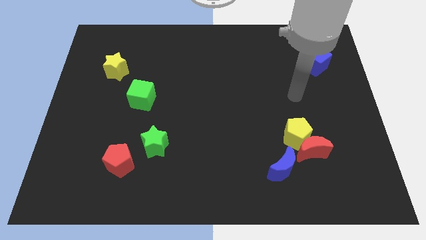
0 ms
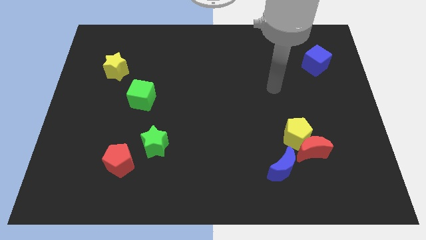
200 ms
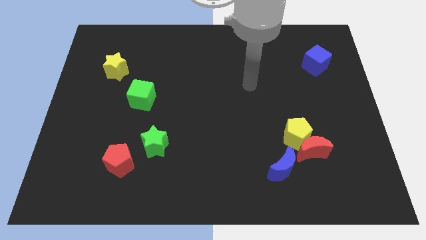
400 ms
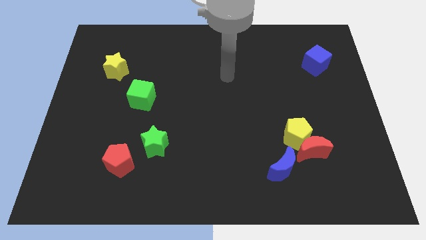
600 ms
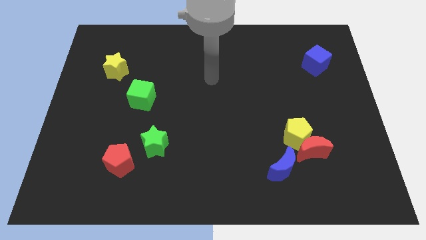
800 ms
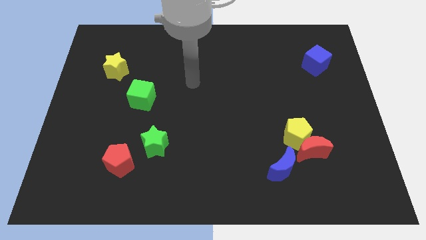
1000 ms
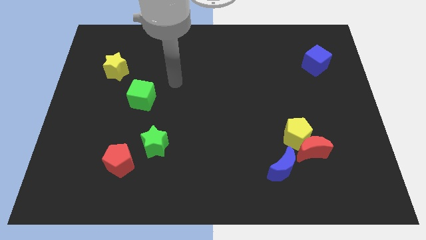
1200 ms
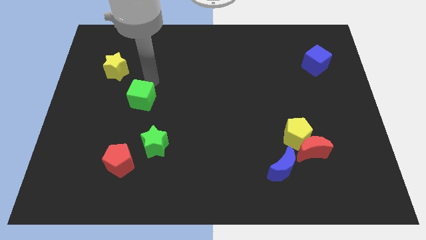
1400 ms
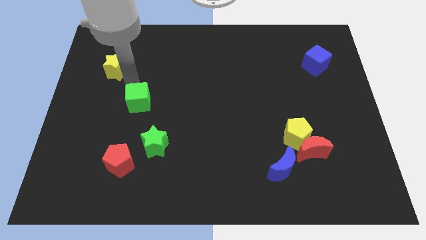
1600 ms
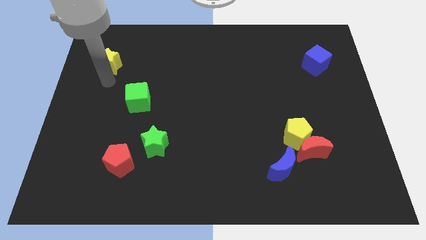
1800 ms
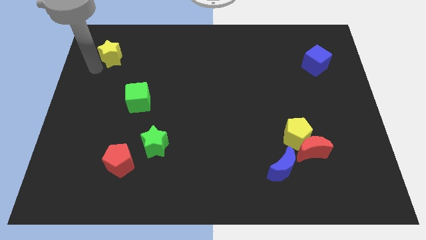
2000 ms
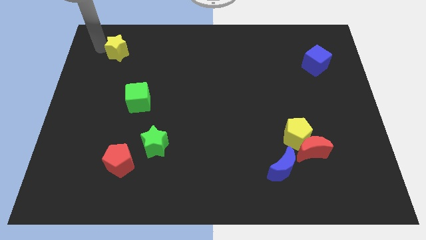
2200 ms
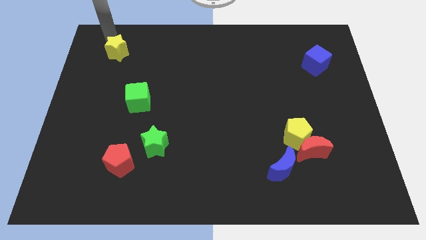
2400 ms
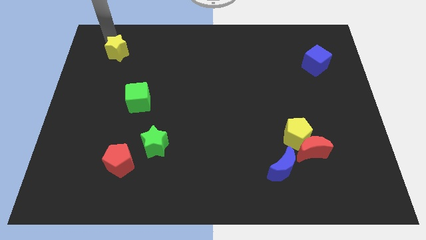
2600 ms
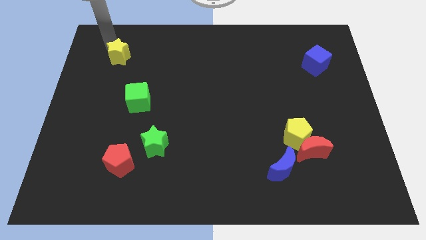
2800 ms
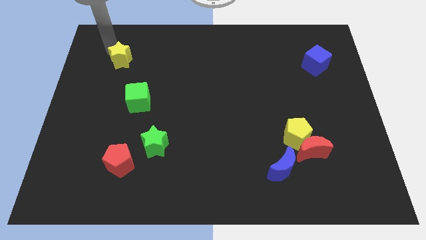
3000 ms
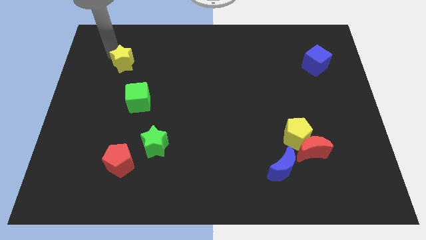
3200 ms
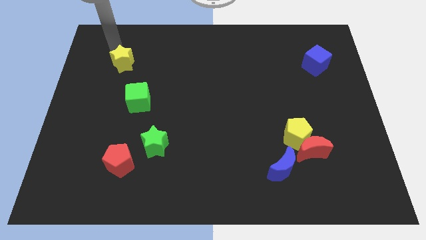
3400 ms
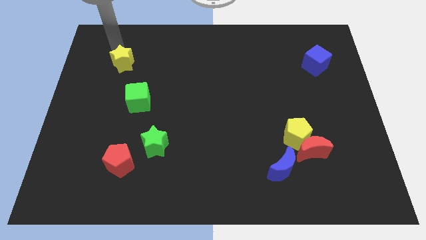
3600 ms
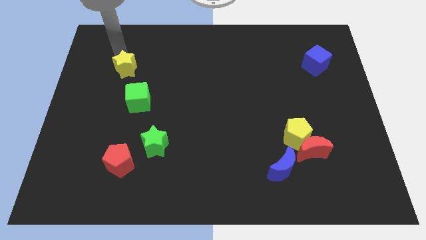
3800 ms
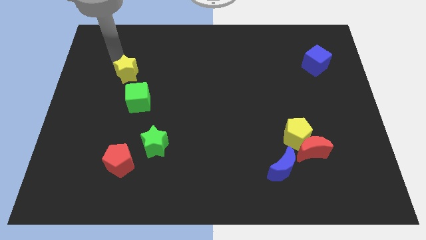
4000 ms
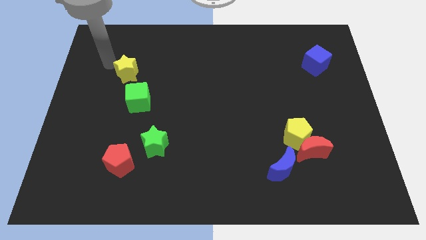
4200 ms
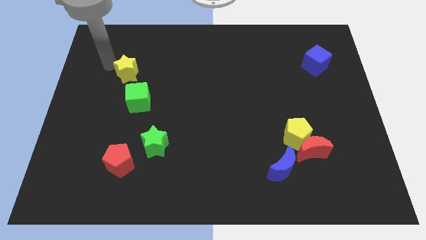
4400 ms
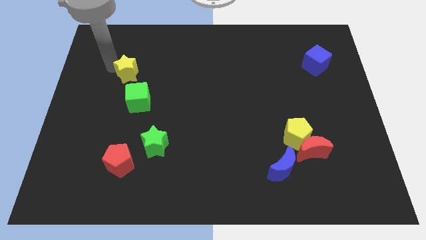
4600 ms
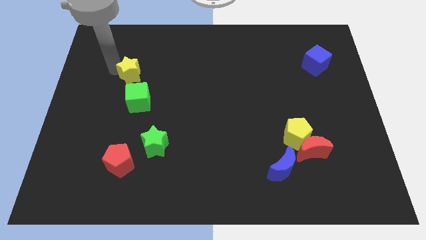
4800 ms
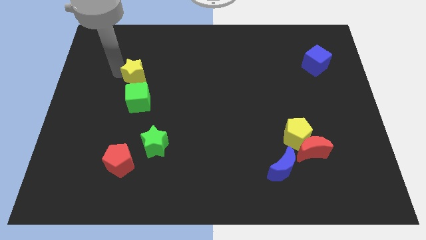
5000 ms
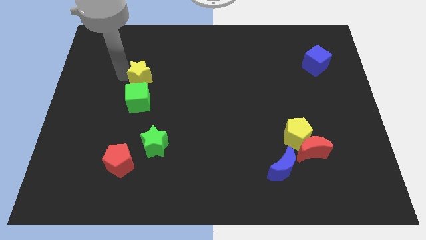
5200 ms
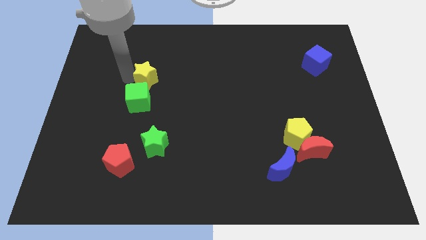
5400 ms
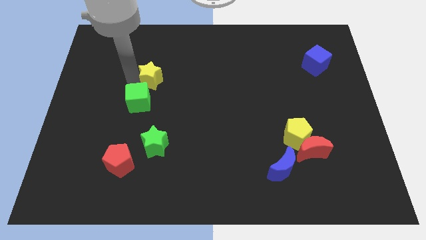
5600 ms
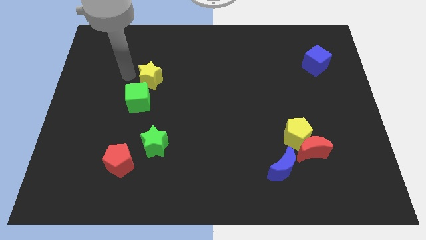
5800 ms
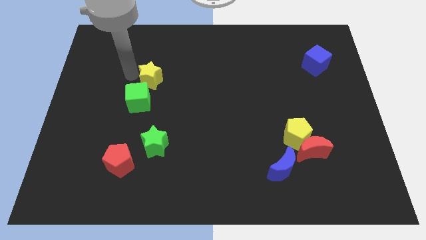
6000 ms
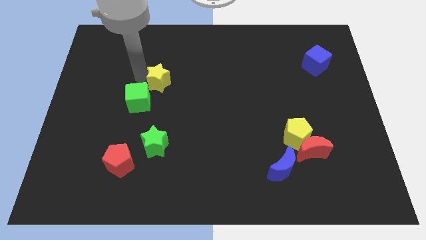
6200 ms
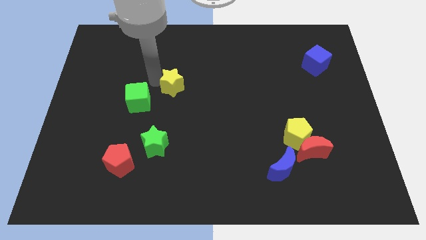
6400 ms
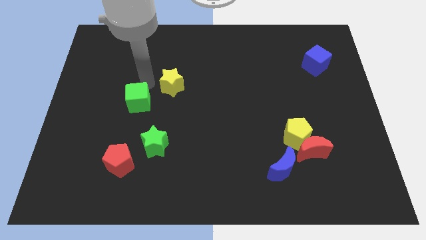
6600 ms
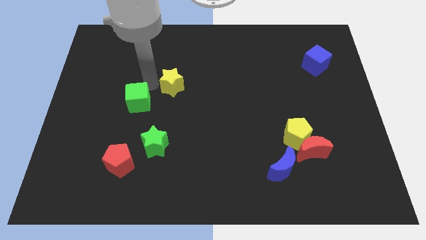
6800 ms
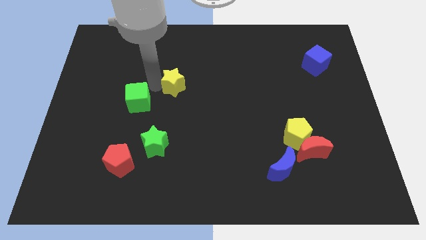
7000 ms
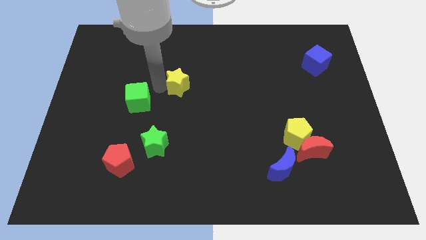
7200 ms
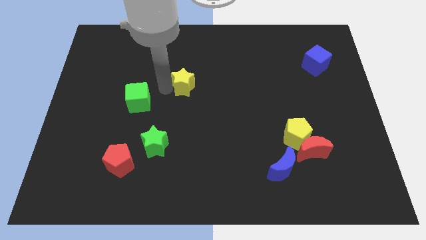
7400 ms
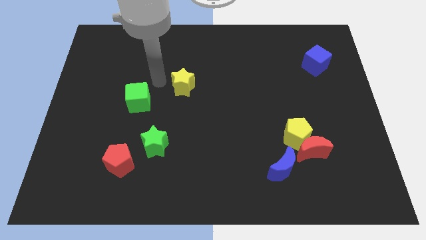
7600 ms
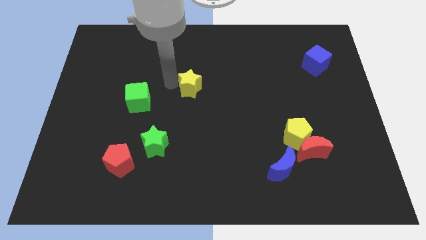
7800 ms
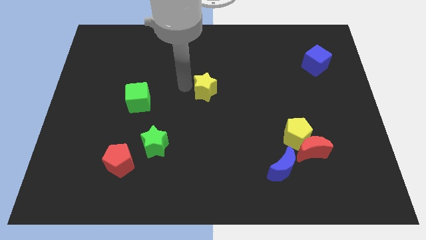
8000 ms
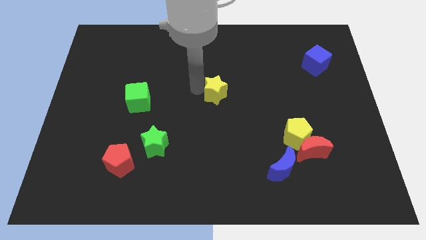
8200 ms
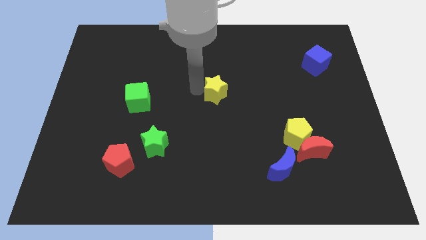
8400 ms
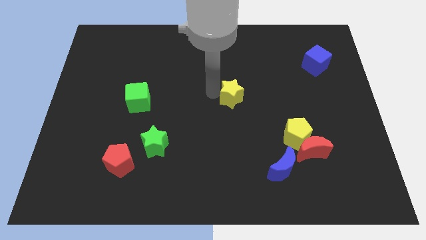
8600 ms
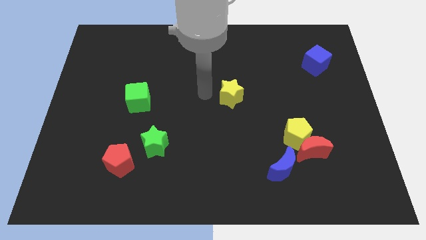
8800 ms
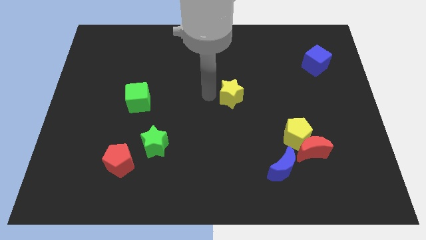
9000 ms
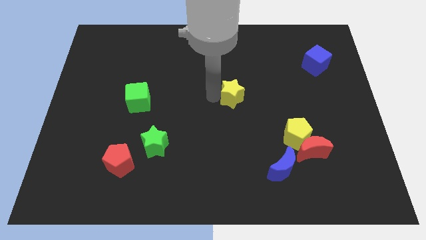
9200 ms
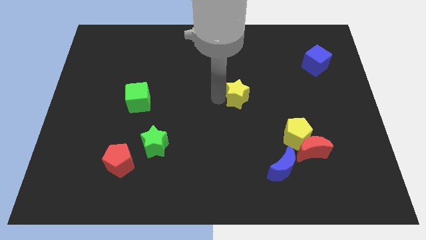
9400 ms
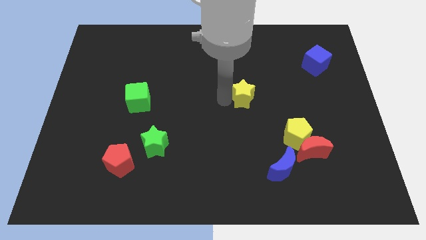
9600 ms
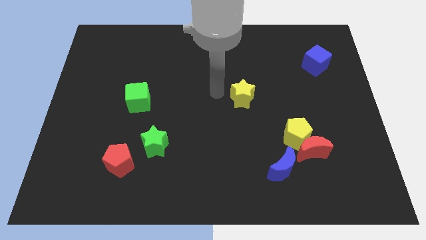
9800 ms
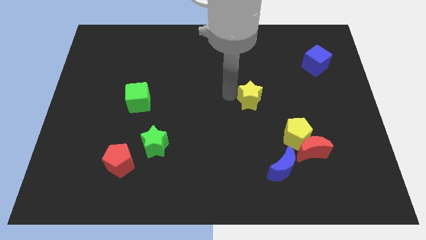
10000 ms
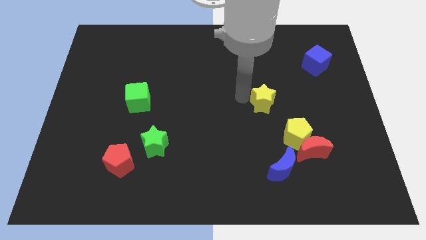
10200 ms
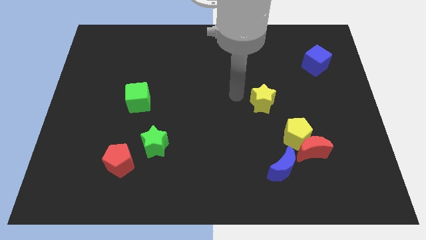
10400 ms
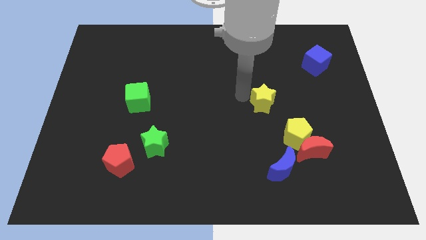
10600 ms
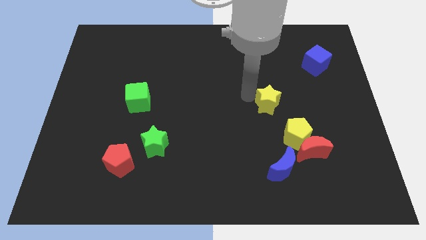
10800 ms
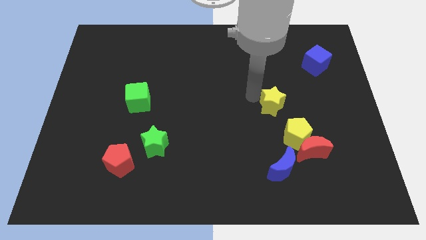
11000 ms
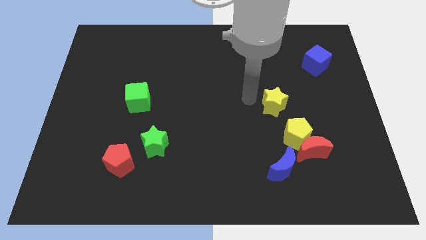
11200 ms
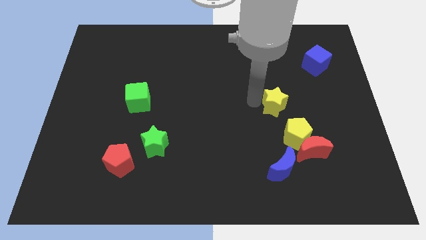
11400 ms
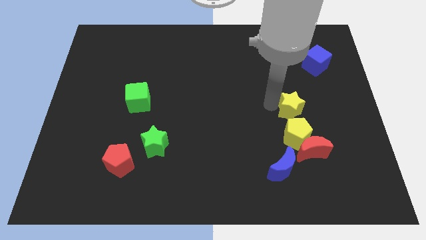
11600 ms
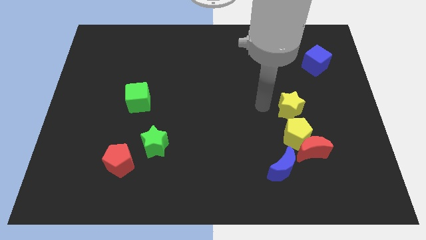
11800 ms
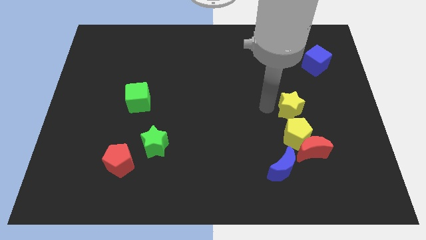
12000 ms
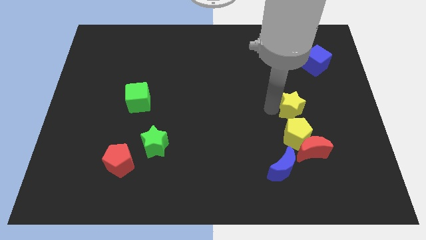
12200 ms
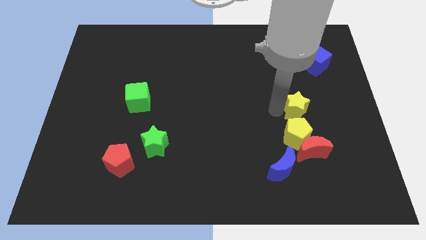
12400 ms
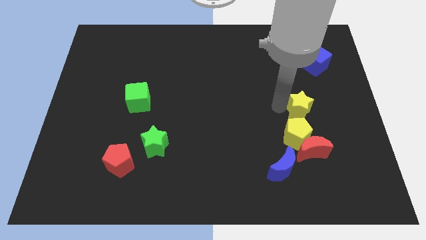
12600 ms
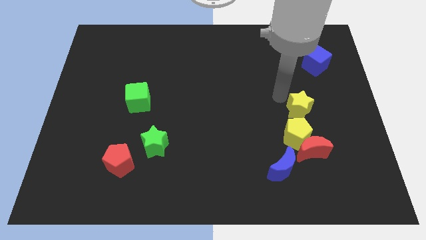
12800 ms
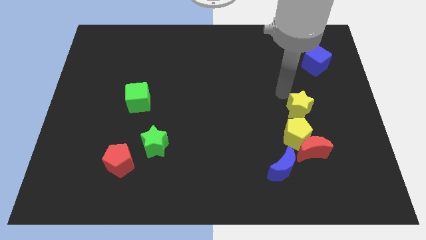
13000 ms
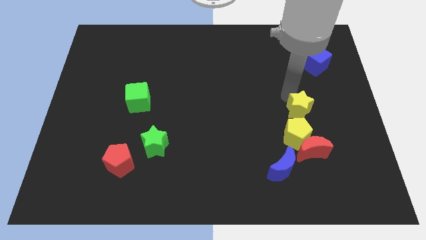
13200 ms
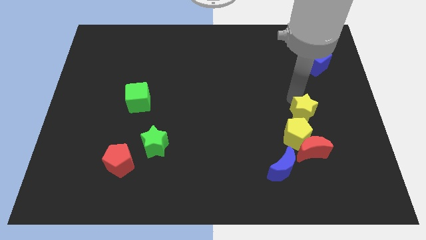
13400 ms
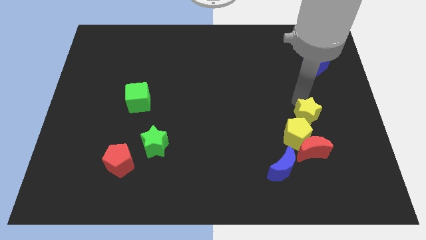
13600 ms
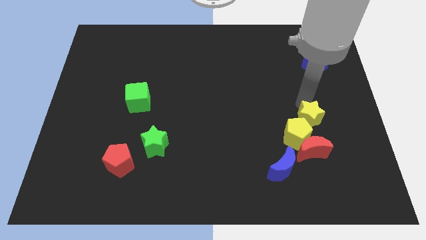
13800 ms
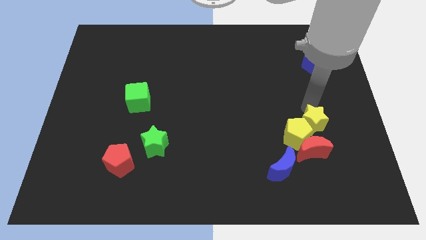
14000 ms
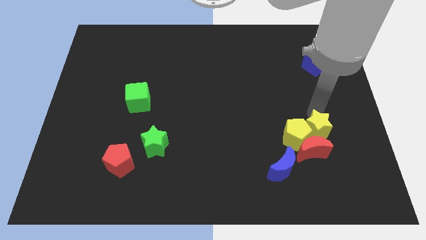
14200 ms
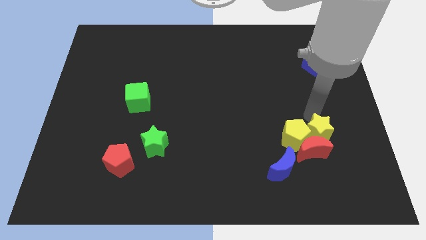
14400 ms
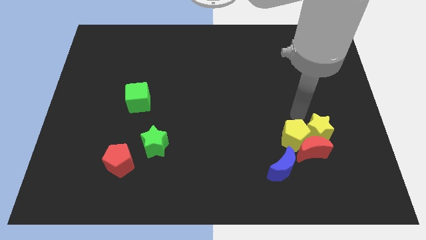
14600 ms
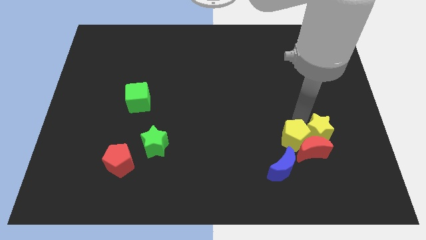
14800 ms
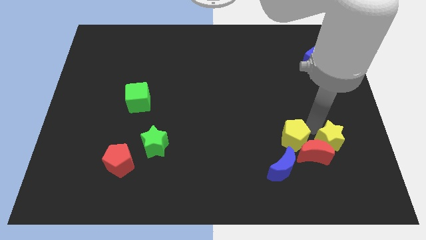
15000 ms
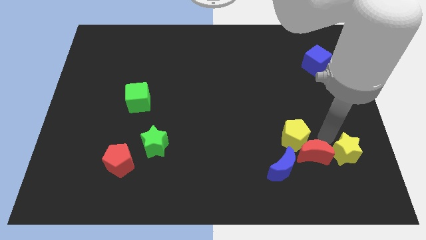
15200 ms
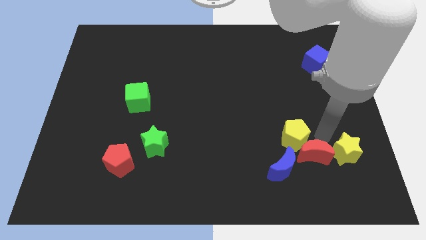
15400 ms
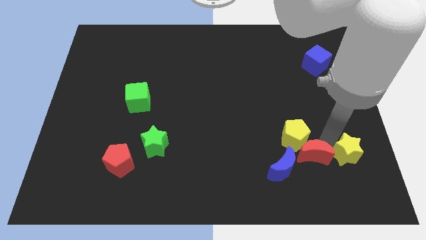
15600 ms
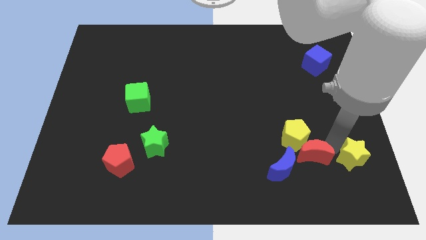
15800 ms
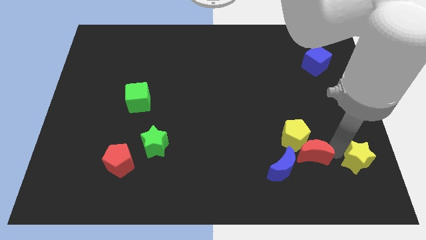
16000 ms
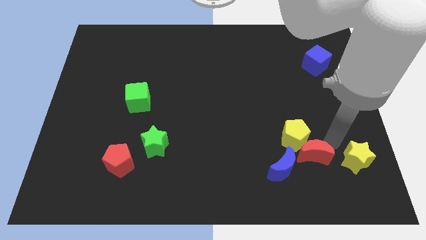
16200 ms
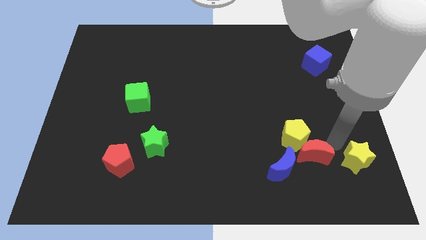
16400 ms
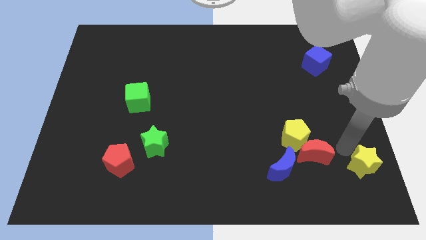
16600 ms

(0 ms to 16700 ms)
slide the yellow star to the bottom right of the board

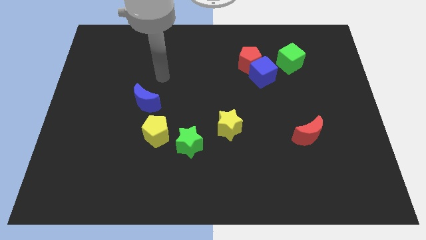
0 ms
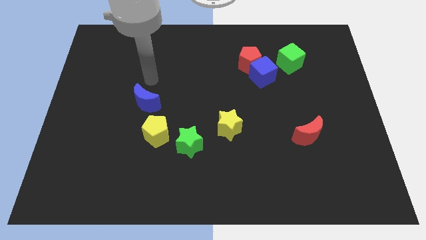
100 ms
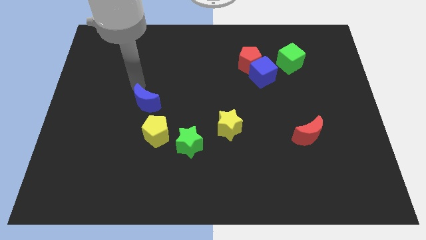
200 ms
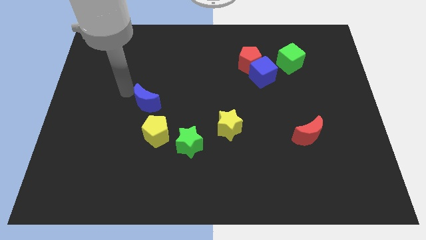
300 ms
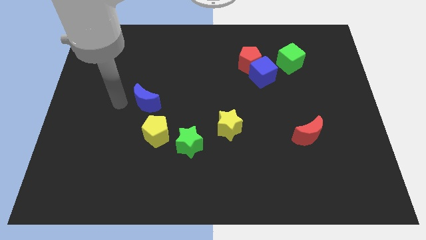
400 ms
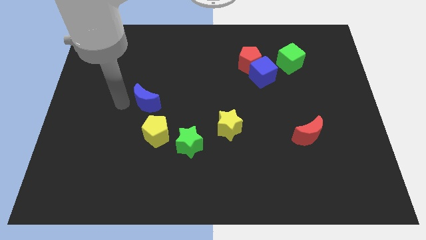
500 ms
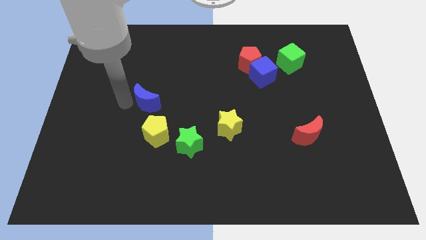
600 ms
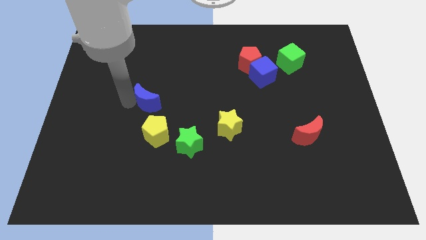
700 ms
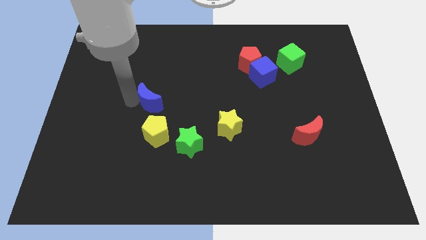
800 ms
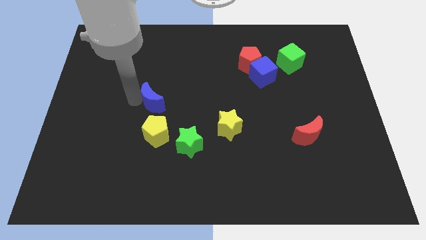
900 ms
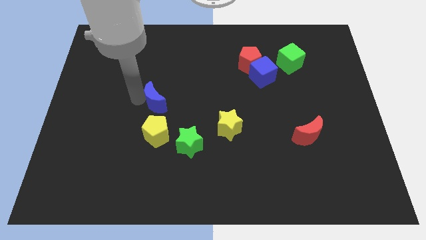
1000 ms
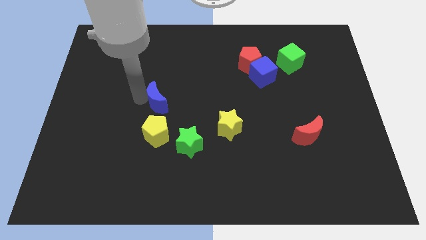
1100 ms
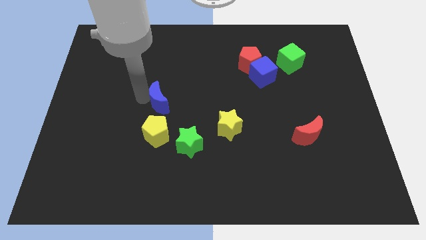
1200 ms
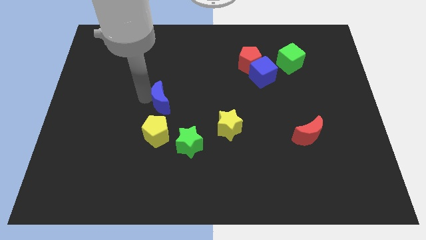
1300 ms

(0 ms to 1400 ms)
push the blue moon to the middle
